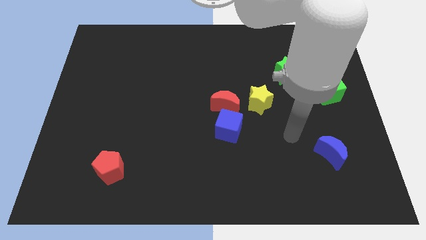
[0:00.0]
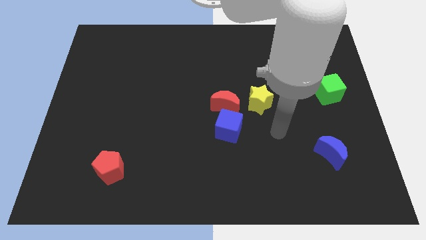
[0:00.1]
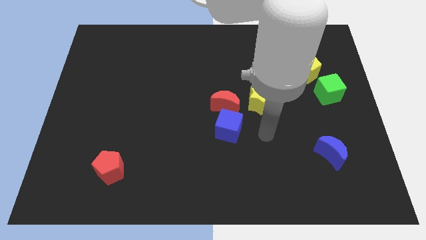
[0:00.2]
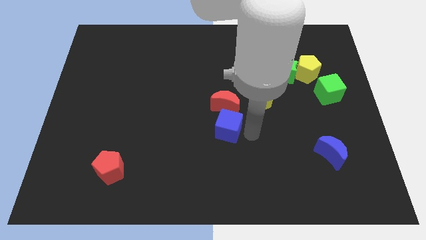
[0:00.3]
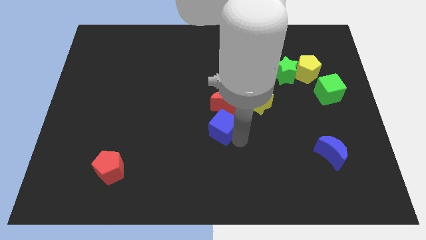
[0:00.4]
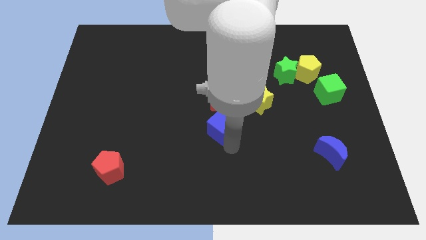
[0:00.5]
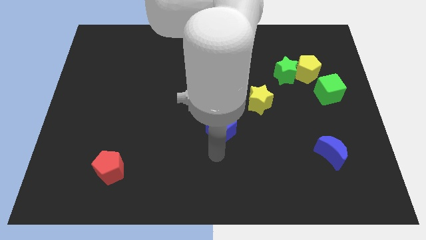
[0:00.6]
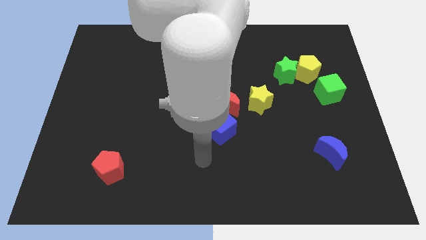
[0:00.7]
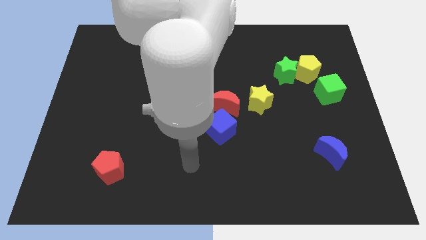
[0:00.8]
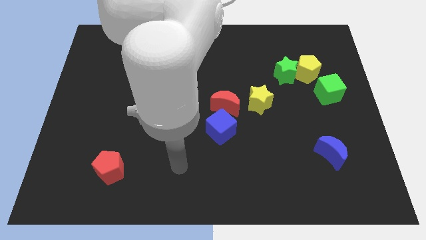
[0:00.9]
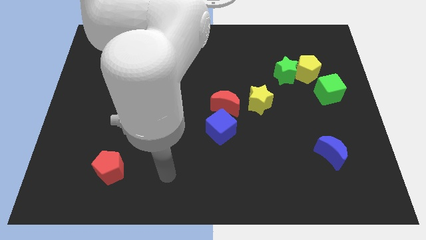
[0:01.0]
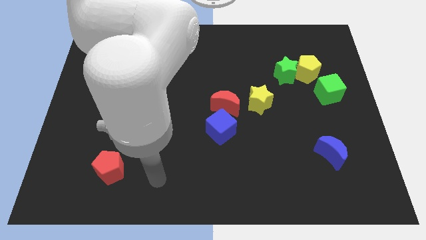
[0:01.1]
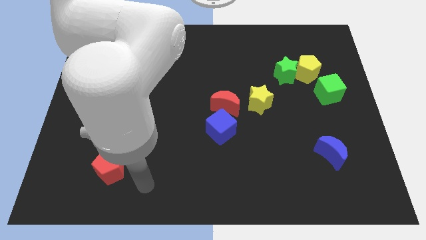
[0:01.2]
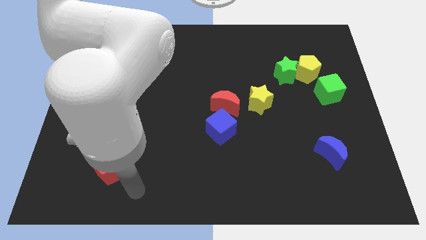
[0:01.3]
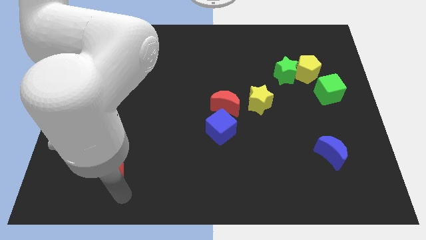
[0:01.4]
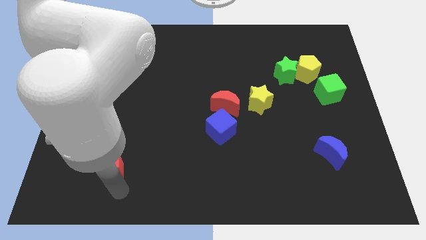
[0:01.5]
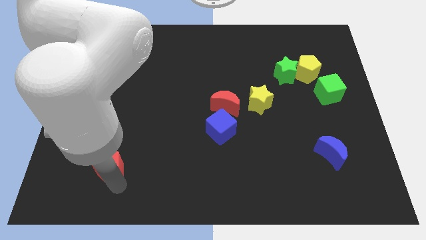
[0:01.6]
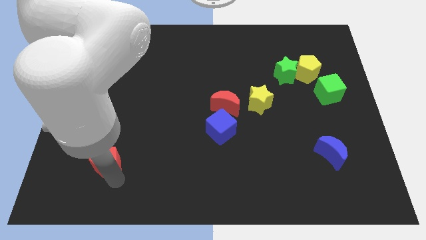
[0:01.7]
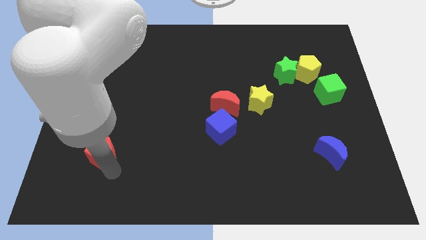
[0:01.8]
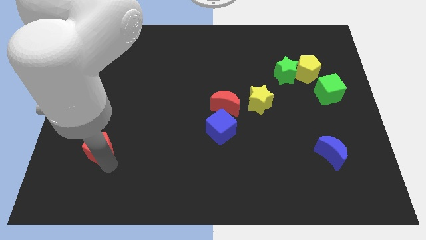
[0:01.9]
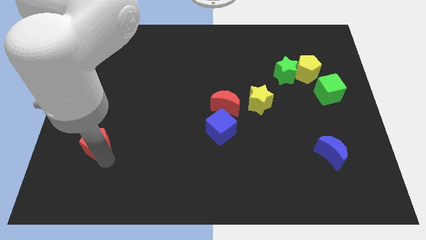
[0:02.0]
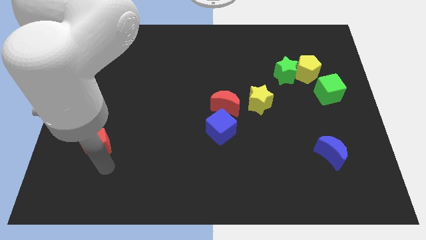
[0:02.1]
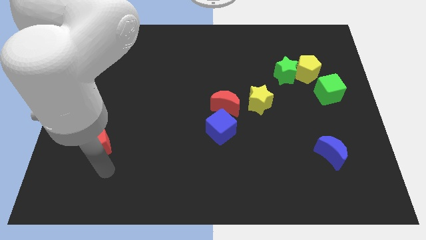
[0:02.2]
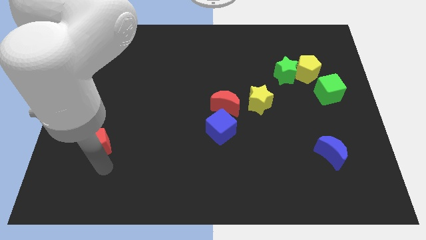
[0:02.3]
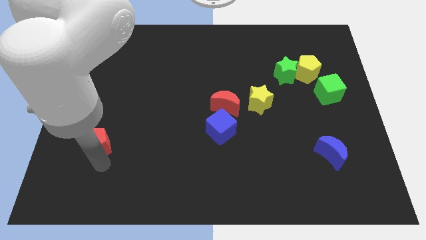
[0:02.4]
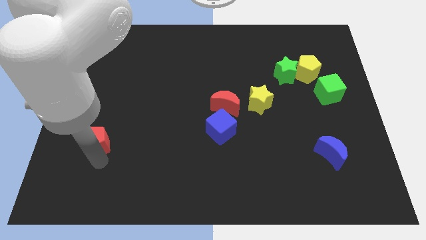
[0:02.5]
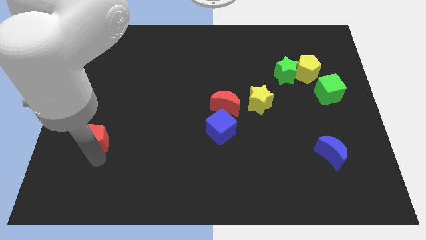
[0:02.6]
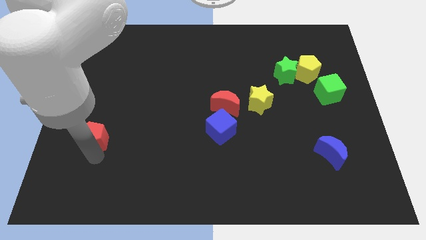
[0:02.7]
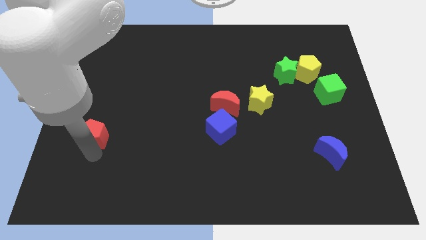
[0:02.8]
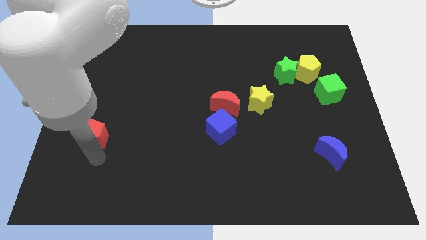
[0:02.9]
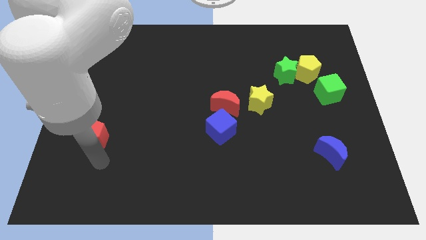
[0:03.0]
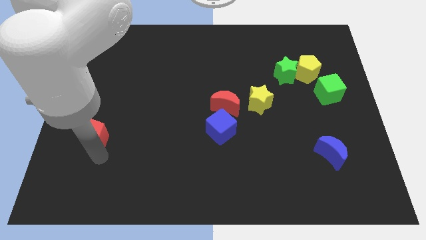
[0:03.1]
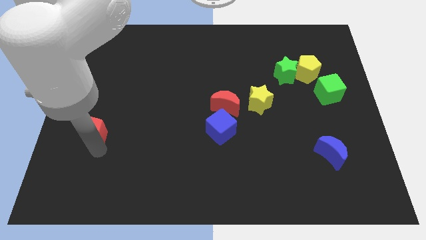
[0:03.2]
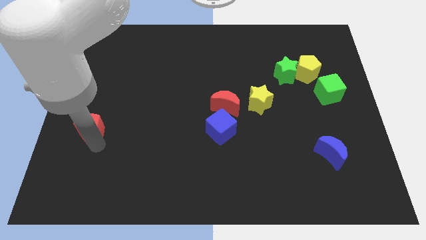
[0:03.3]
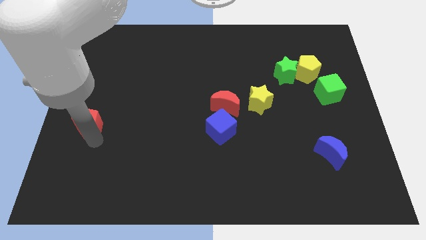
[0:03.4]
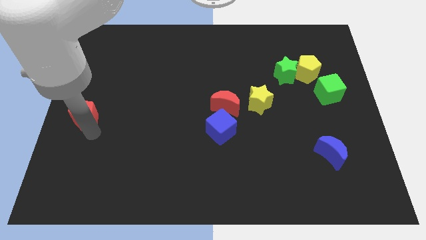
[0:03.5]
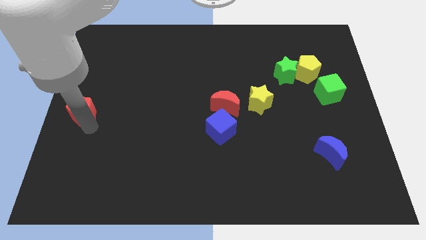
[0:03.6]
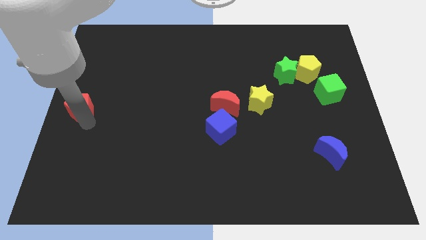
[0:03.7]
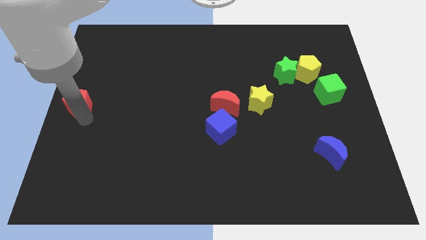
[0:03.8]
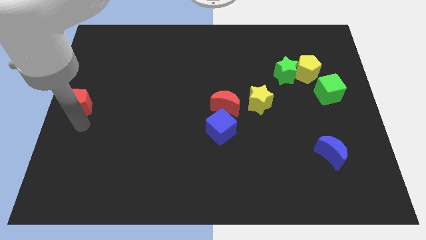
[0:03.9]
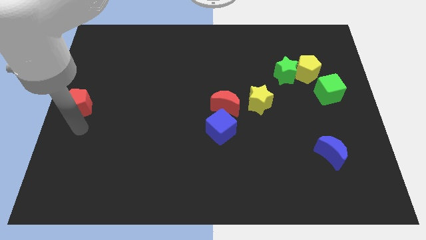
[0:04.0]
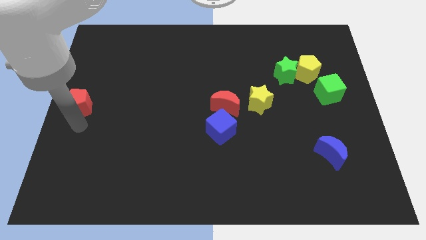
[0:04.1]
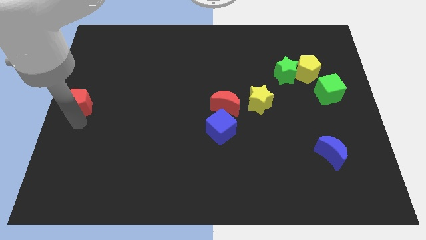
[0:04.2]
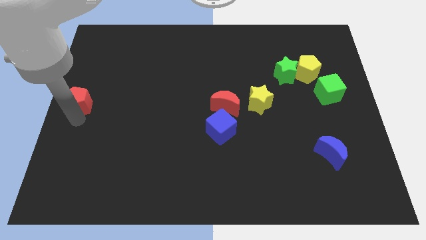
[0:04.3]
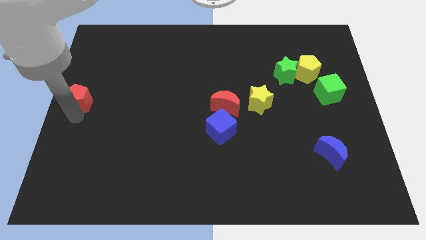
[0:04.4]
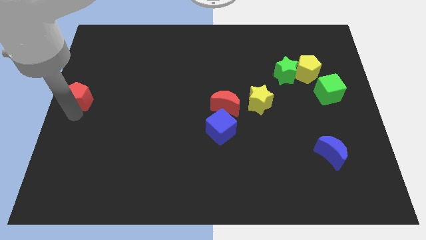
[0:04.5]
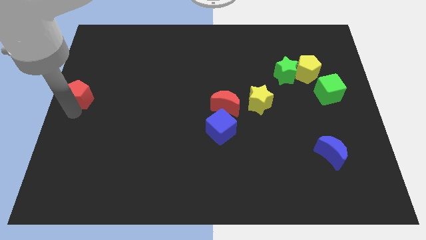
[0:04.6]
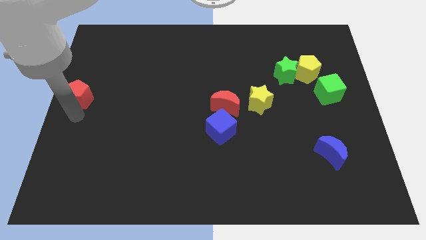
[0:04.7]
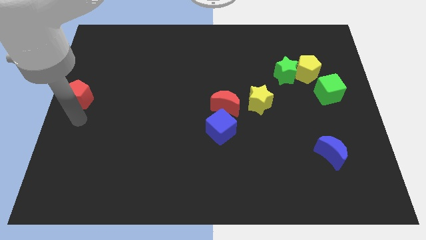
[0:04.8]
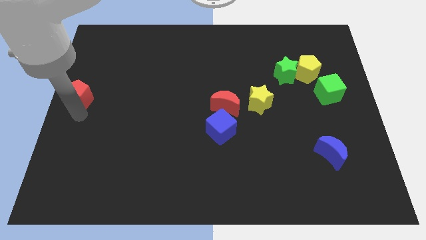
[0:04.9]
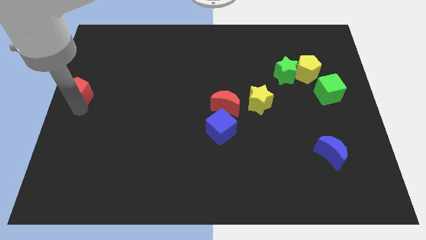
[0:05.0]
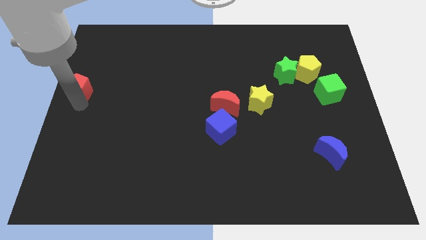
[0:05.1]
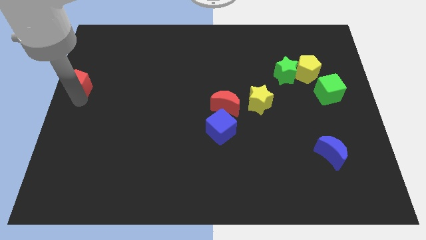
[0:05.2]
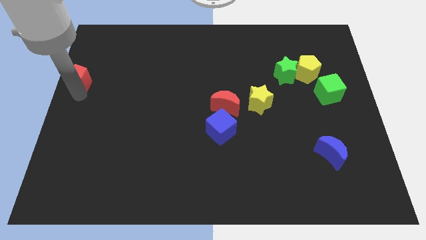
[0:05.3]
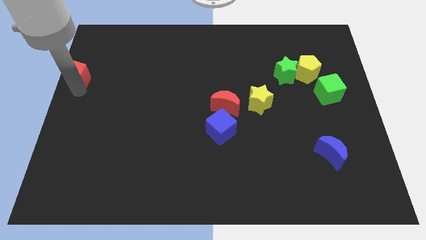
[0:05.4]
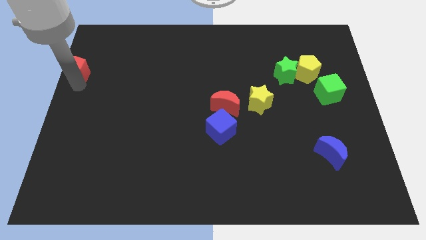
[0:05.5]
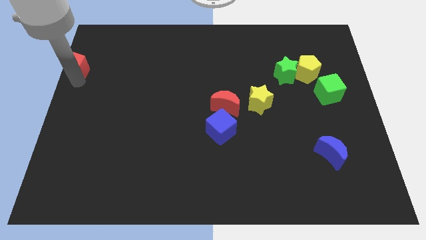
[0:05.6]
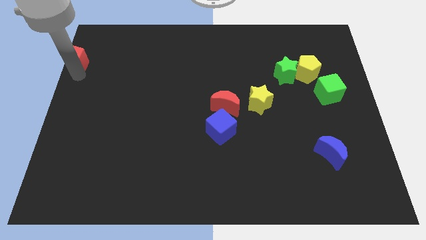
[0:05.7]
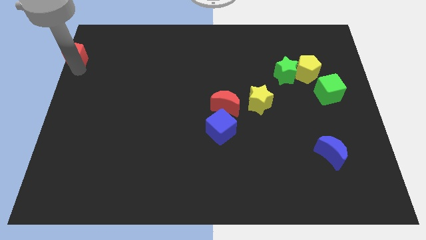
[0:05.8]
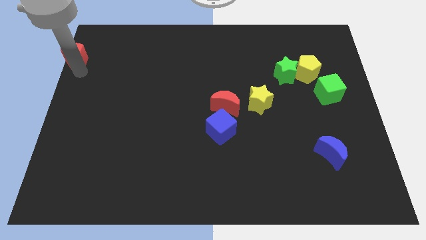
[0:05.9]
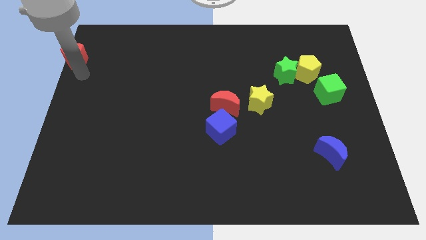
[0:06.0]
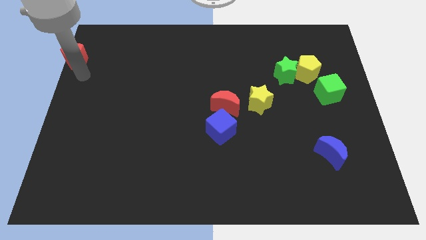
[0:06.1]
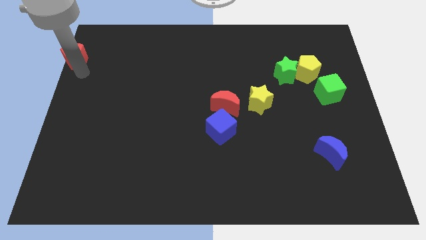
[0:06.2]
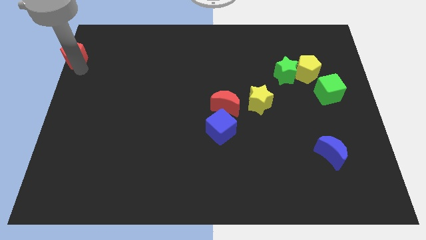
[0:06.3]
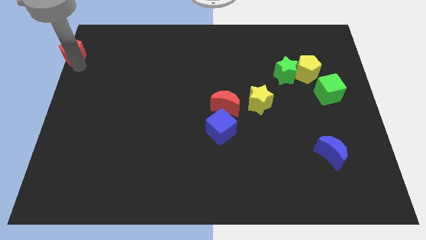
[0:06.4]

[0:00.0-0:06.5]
slide the red pentagon to the top left of the board

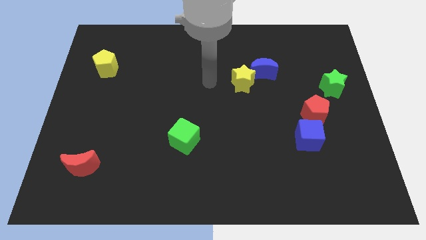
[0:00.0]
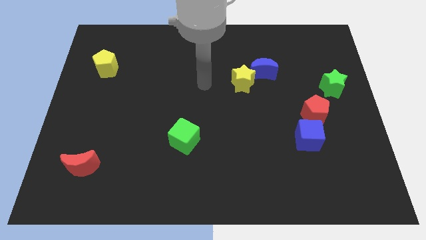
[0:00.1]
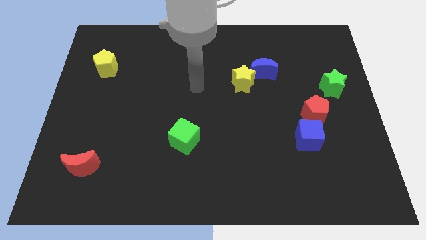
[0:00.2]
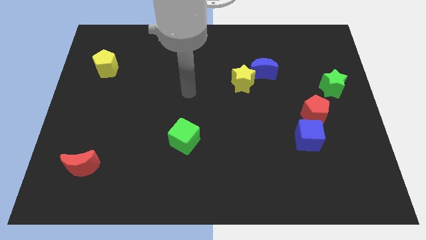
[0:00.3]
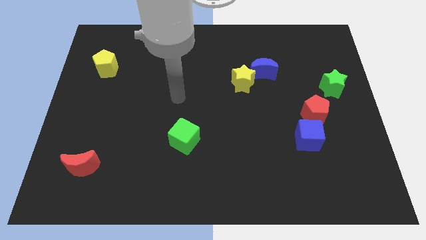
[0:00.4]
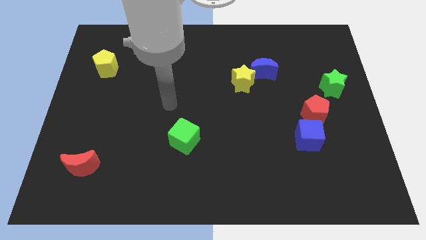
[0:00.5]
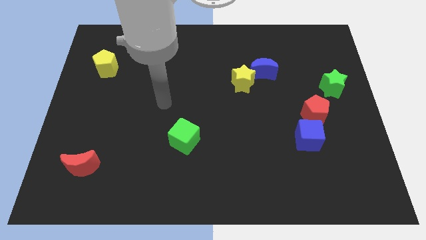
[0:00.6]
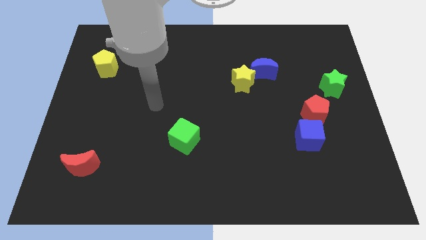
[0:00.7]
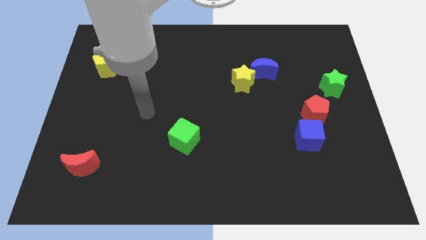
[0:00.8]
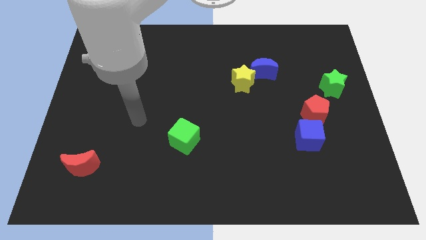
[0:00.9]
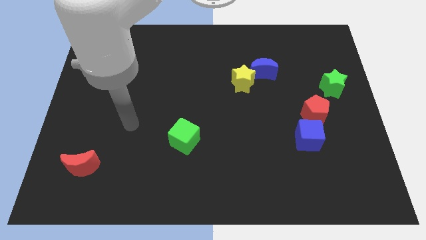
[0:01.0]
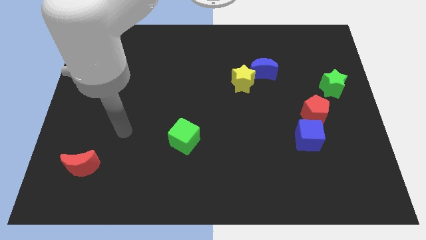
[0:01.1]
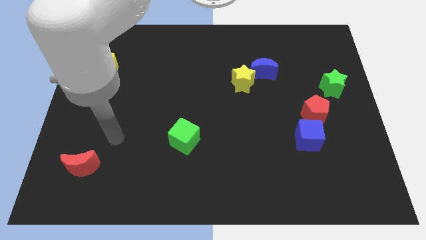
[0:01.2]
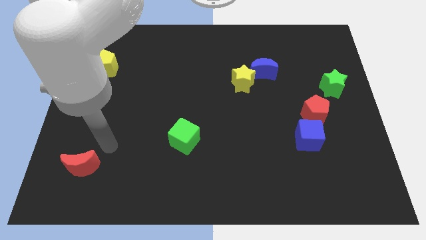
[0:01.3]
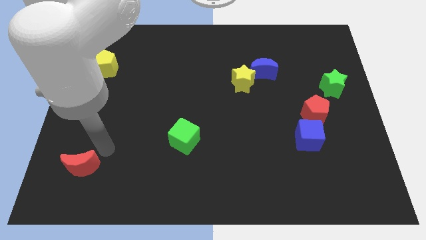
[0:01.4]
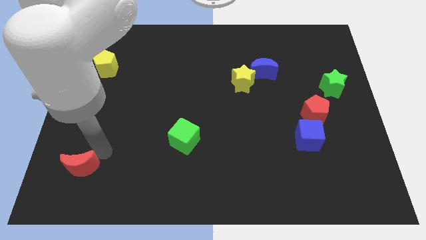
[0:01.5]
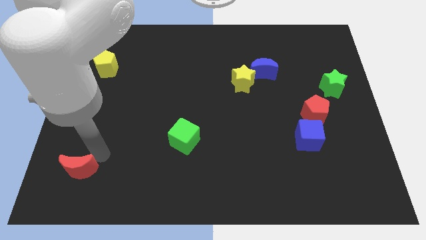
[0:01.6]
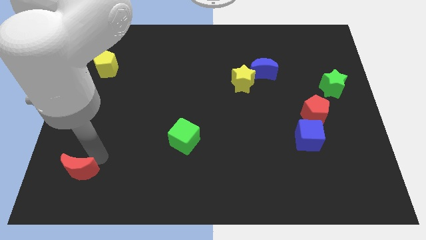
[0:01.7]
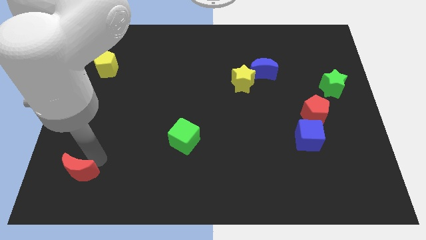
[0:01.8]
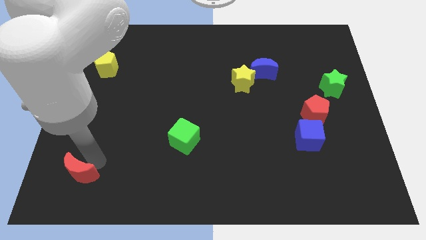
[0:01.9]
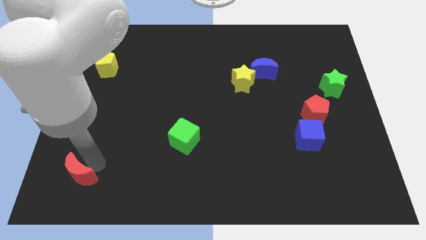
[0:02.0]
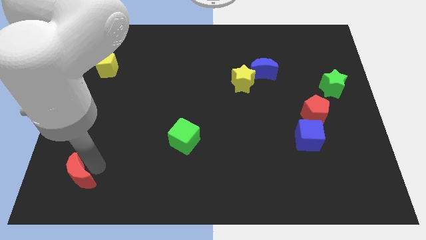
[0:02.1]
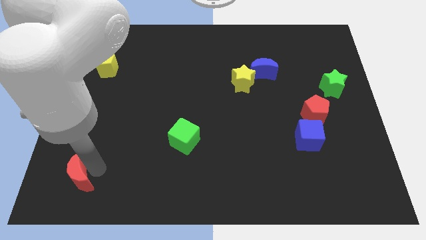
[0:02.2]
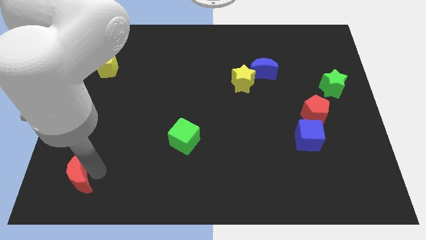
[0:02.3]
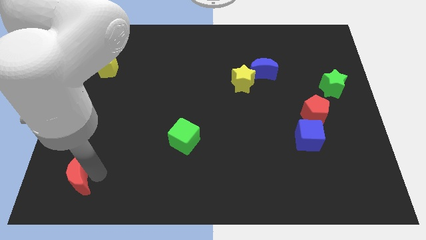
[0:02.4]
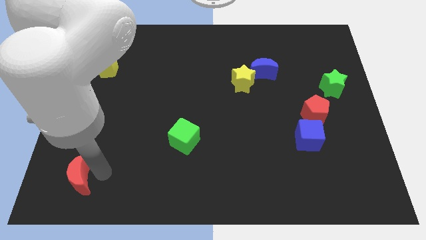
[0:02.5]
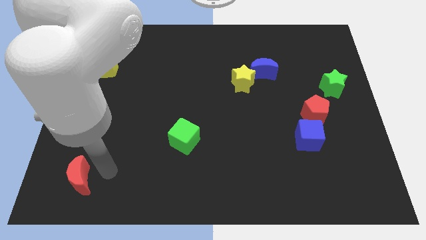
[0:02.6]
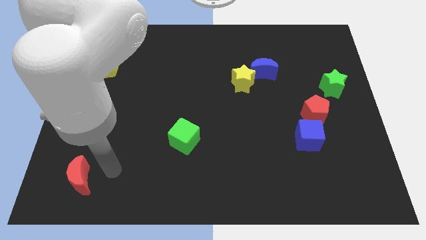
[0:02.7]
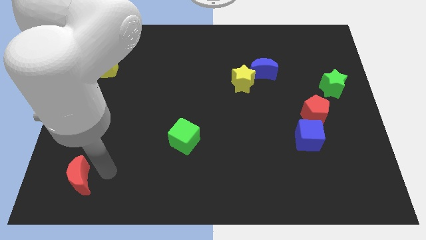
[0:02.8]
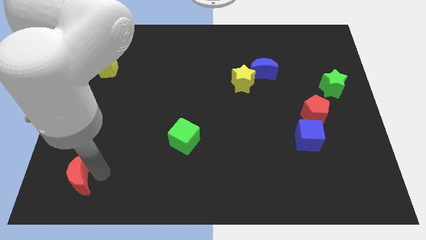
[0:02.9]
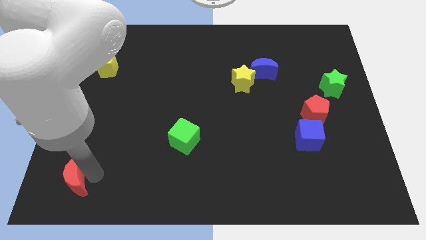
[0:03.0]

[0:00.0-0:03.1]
move the red moon to the bottom left corner
